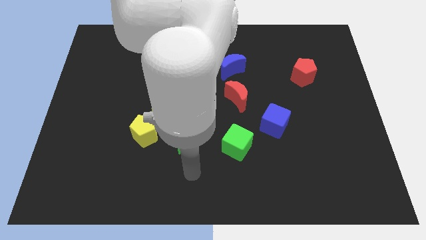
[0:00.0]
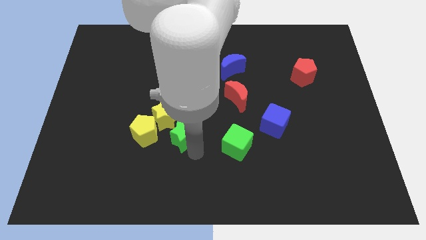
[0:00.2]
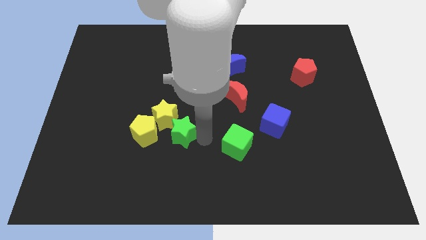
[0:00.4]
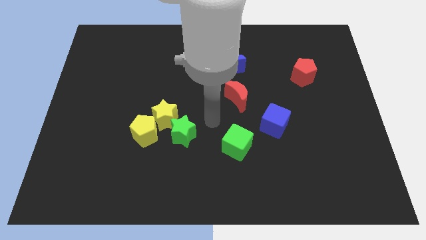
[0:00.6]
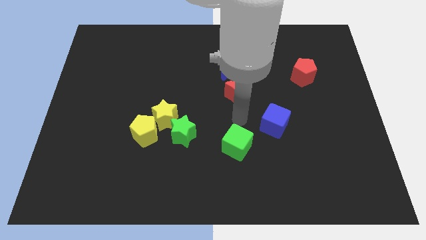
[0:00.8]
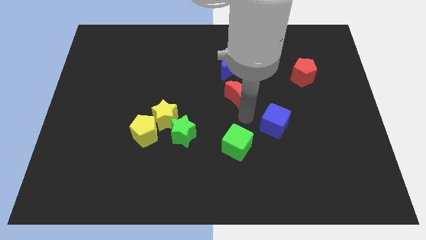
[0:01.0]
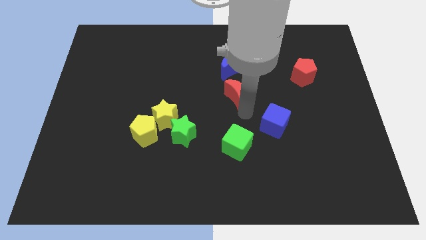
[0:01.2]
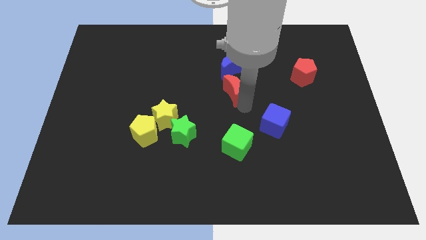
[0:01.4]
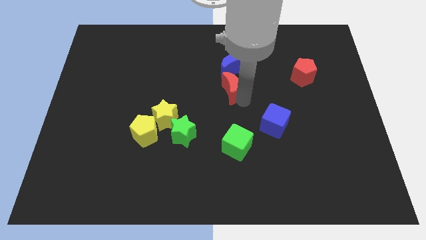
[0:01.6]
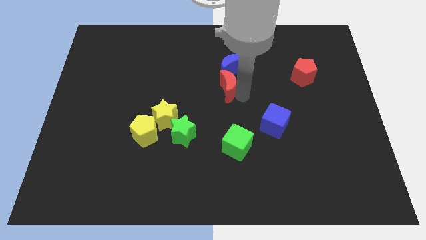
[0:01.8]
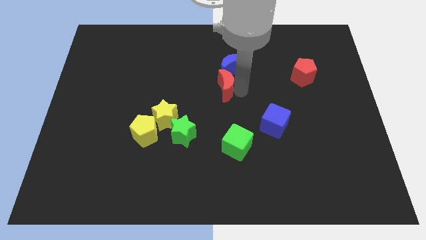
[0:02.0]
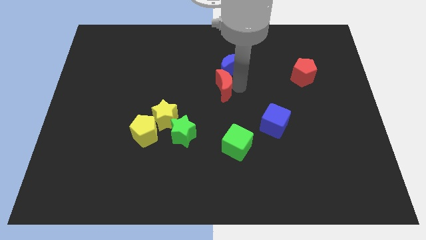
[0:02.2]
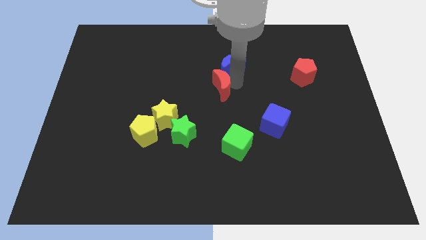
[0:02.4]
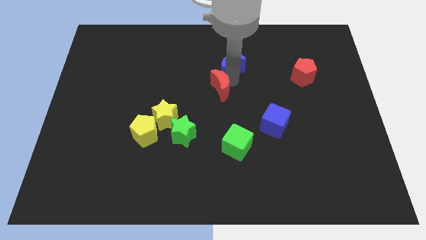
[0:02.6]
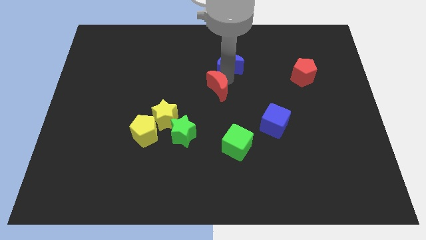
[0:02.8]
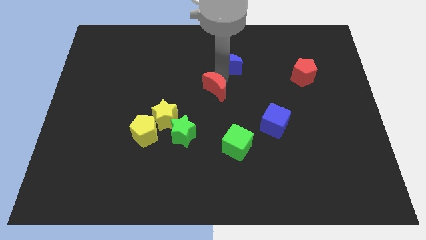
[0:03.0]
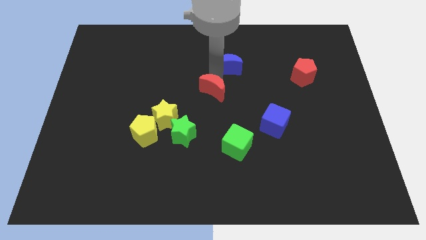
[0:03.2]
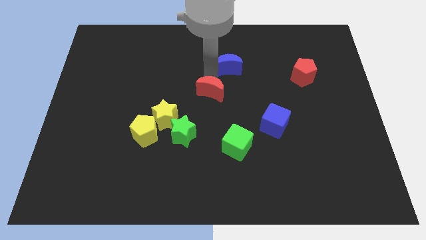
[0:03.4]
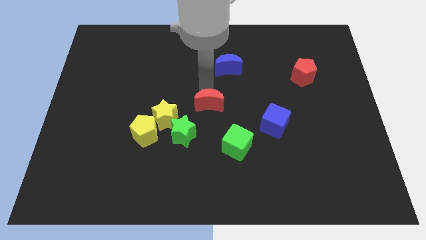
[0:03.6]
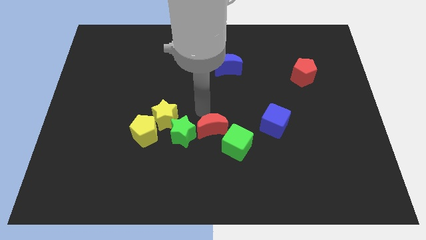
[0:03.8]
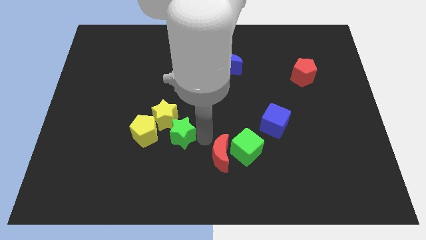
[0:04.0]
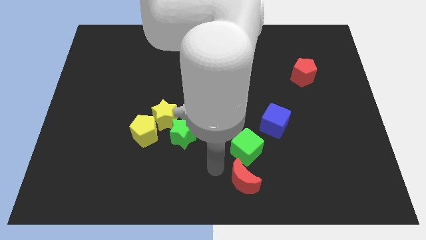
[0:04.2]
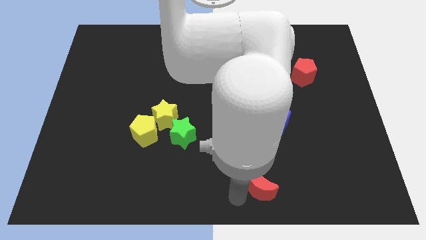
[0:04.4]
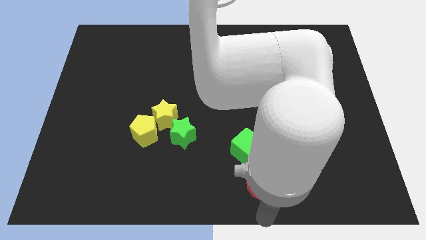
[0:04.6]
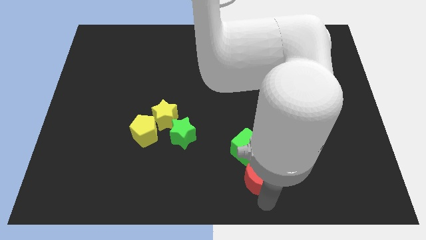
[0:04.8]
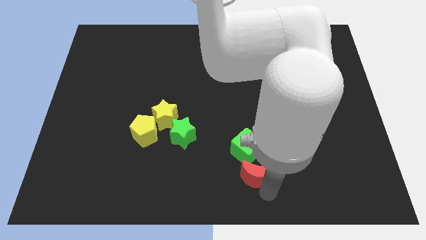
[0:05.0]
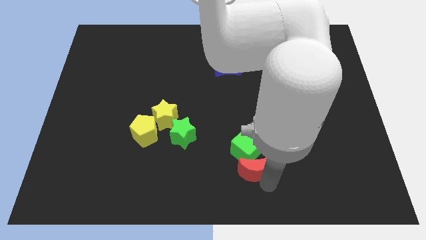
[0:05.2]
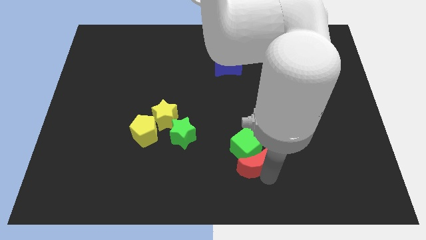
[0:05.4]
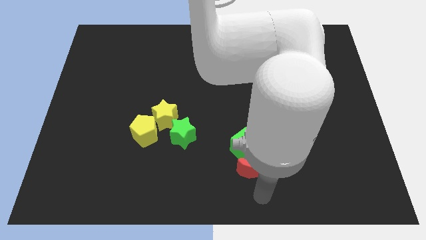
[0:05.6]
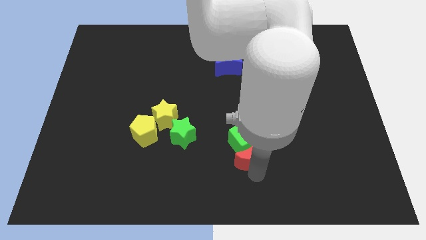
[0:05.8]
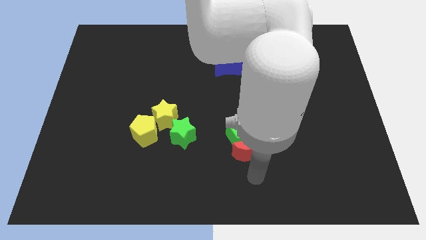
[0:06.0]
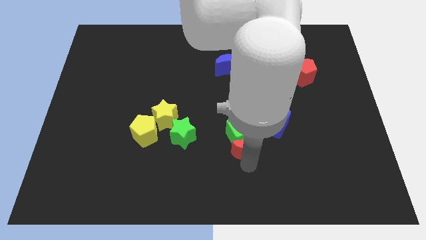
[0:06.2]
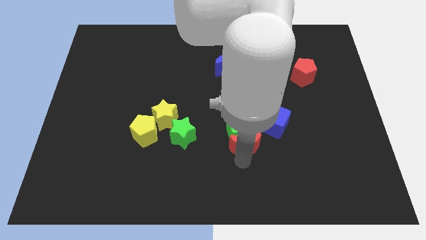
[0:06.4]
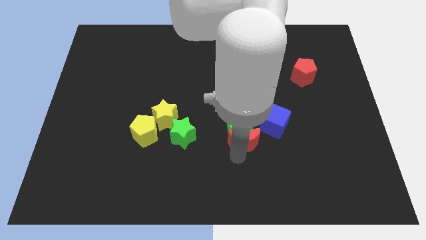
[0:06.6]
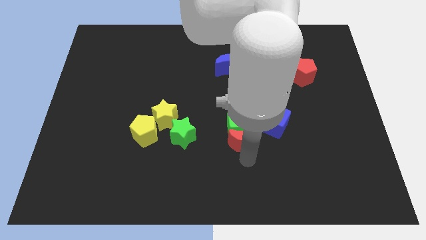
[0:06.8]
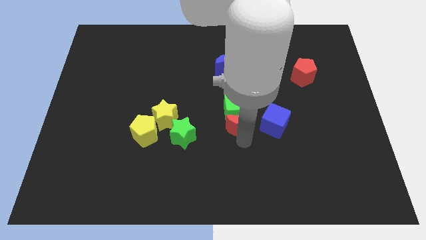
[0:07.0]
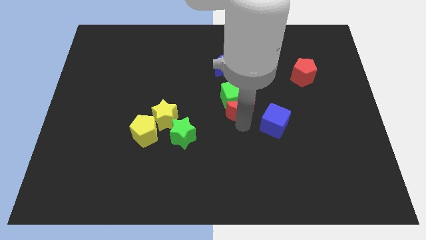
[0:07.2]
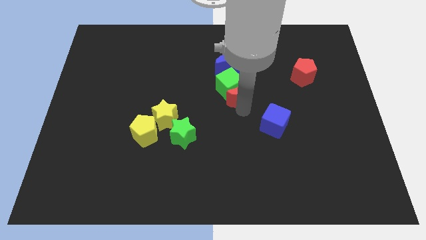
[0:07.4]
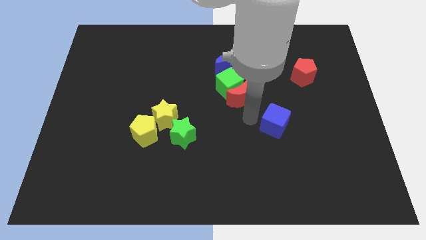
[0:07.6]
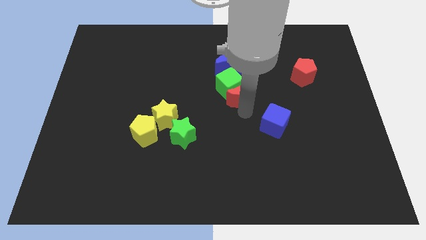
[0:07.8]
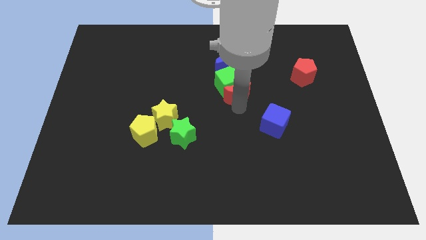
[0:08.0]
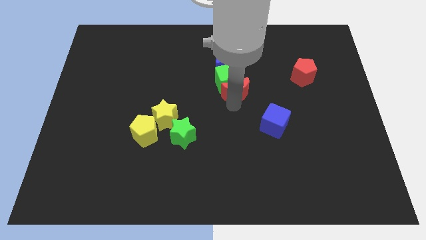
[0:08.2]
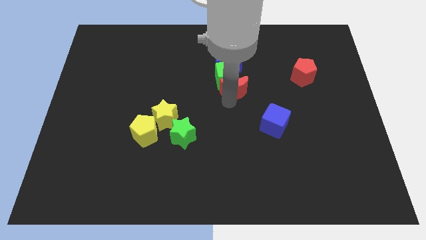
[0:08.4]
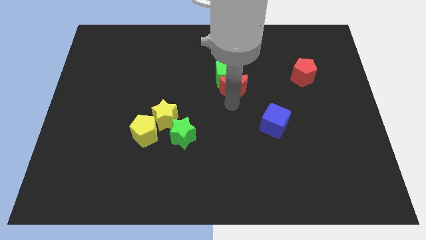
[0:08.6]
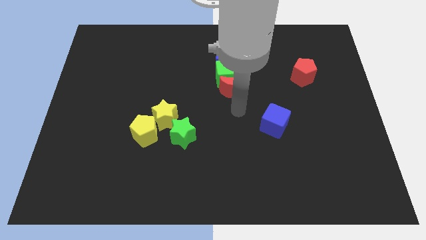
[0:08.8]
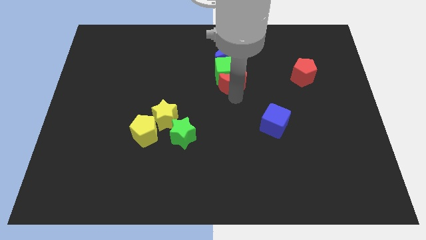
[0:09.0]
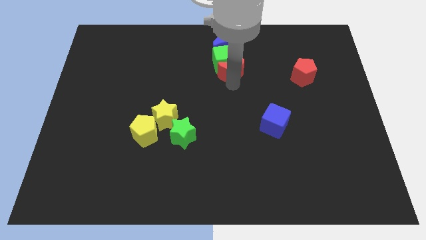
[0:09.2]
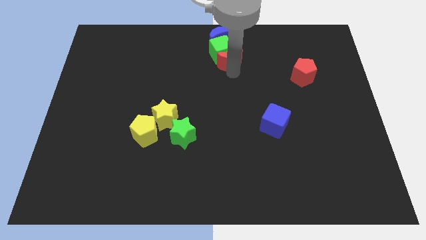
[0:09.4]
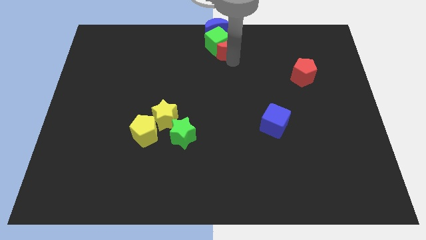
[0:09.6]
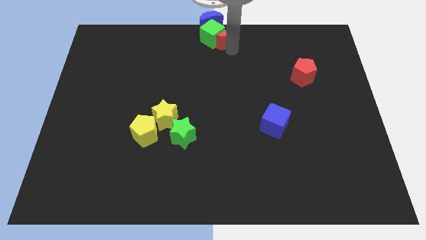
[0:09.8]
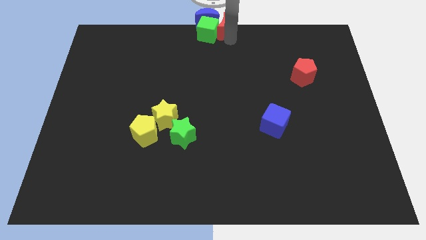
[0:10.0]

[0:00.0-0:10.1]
put the red moon next to the blue moon

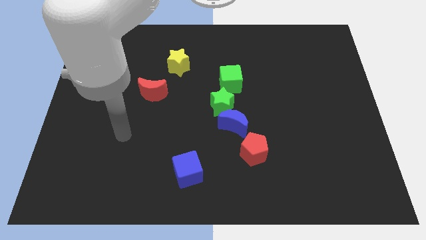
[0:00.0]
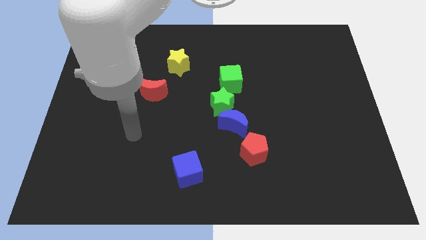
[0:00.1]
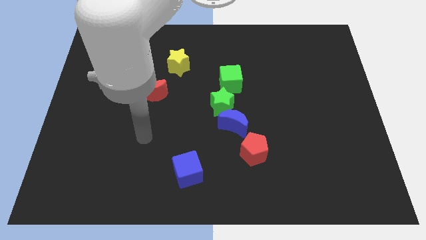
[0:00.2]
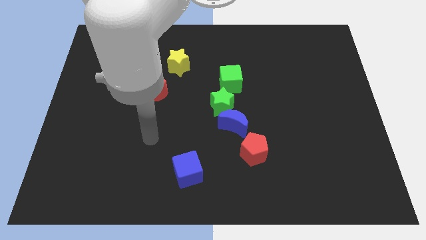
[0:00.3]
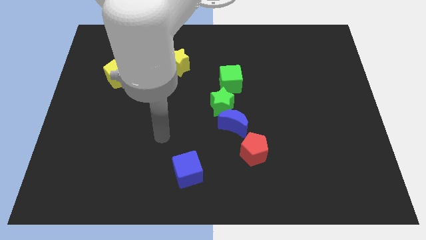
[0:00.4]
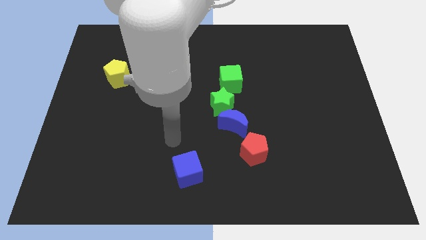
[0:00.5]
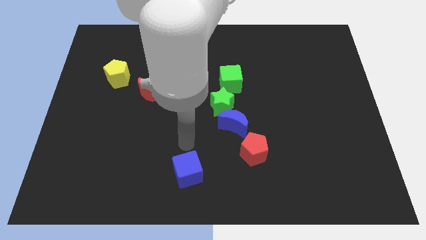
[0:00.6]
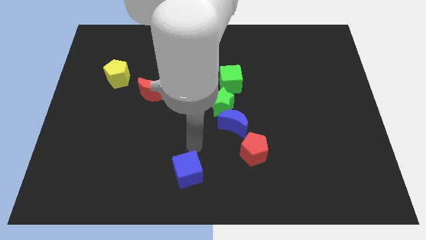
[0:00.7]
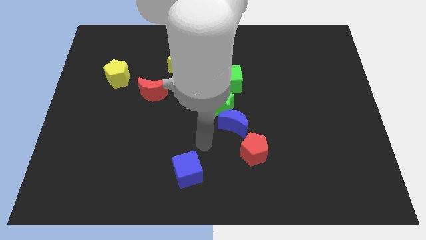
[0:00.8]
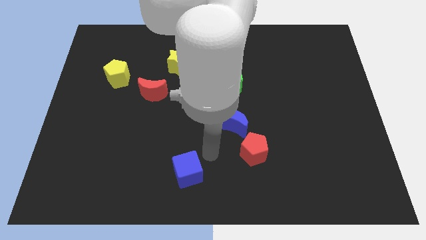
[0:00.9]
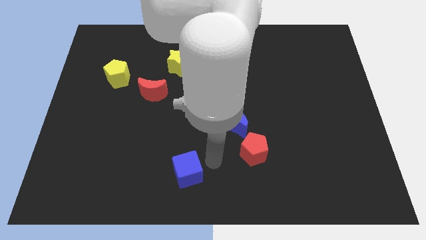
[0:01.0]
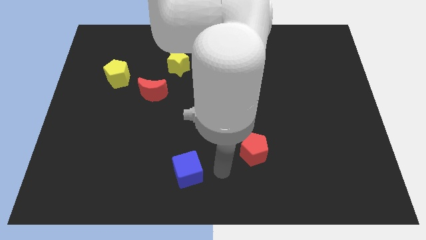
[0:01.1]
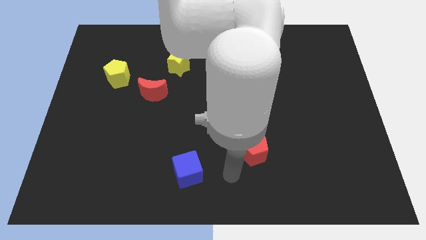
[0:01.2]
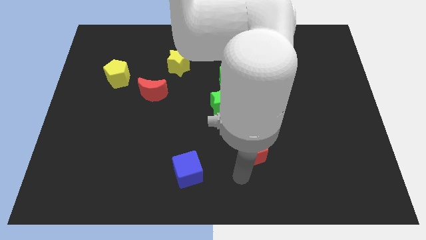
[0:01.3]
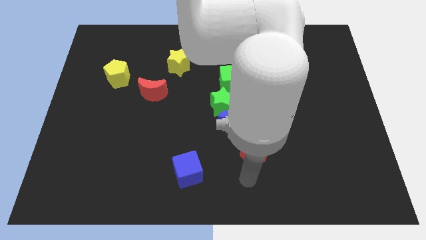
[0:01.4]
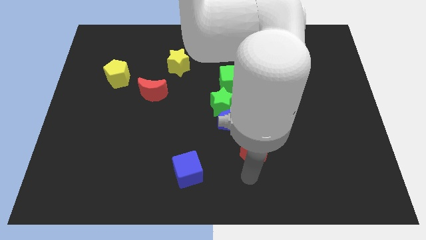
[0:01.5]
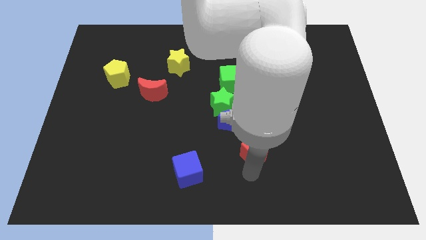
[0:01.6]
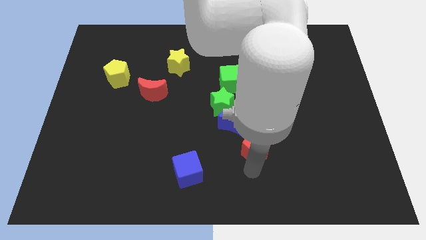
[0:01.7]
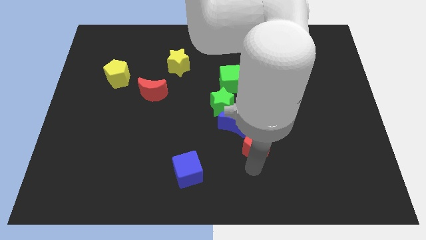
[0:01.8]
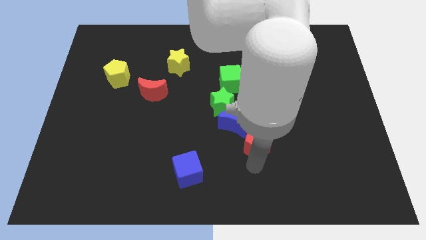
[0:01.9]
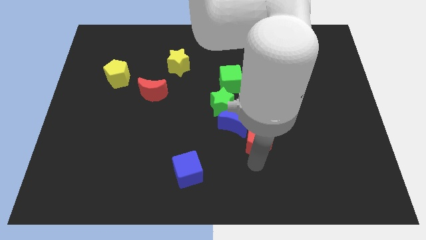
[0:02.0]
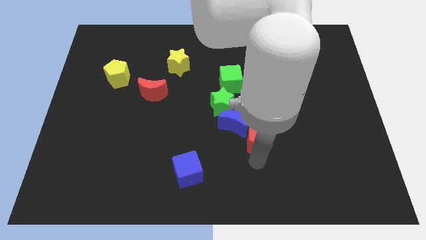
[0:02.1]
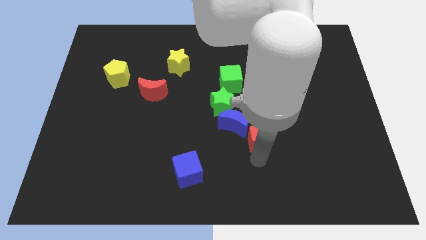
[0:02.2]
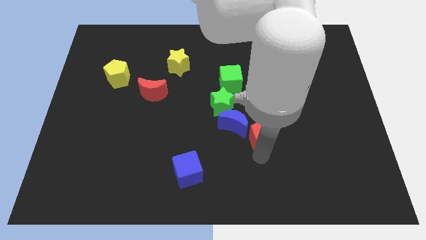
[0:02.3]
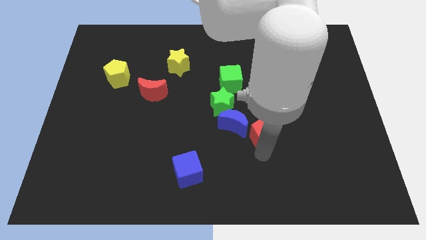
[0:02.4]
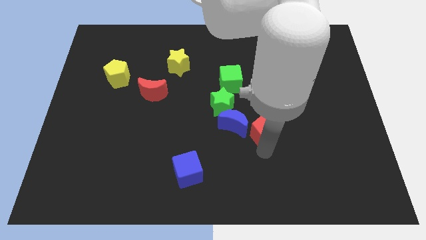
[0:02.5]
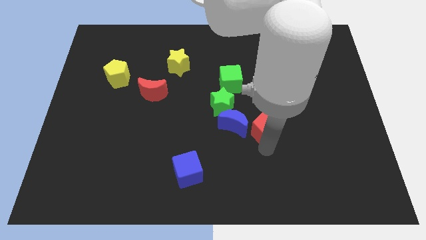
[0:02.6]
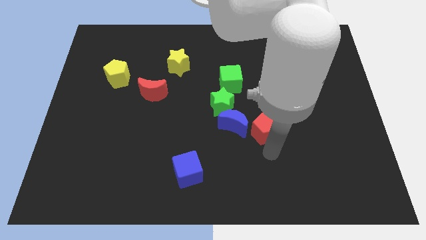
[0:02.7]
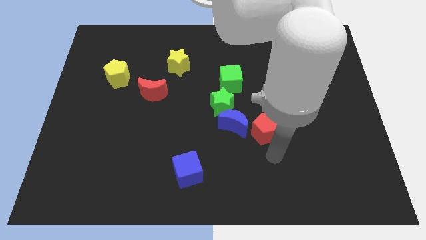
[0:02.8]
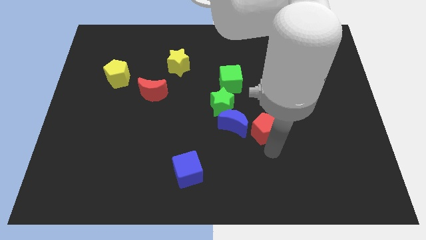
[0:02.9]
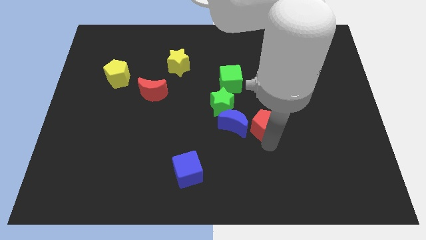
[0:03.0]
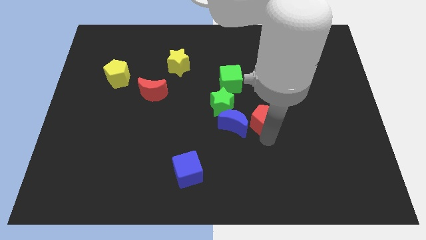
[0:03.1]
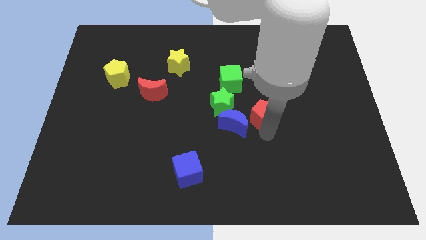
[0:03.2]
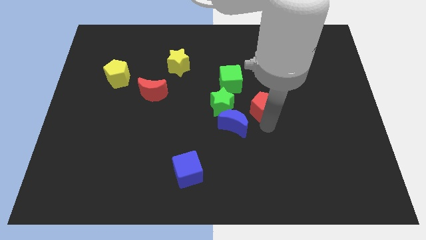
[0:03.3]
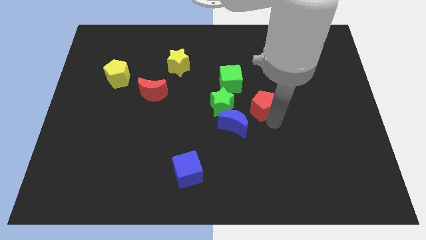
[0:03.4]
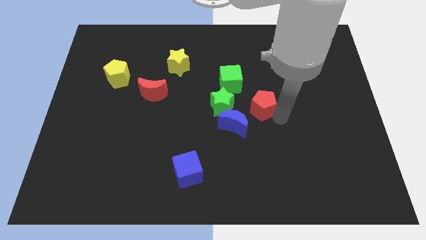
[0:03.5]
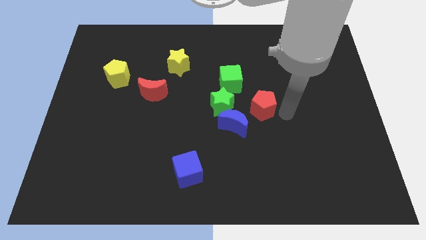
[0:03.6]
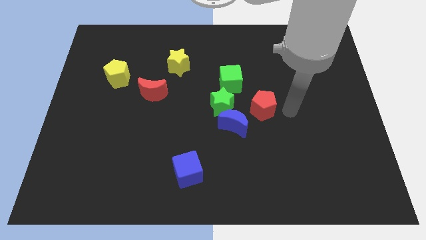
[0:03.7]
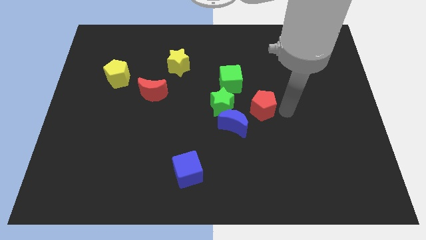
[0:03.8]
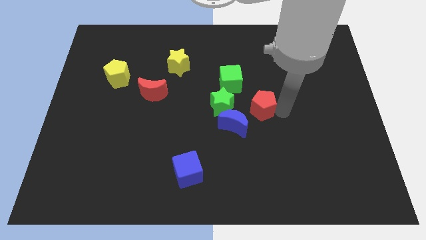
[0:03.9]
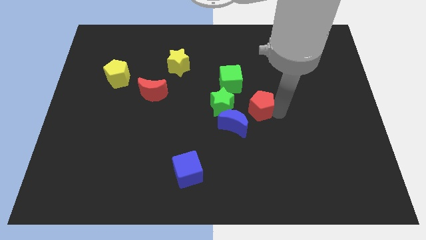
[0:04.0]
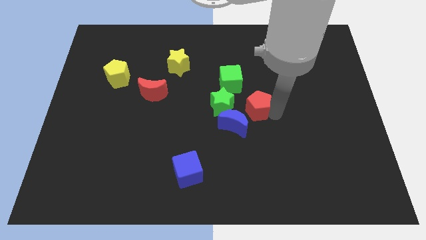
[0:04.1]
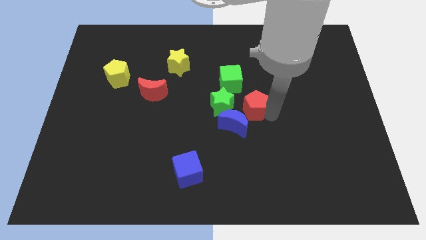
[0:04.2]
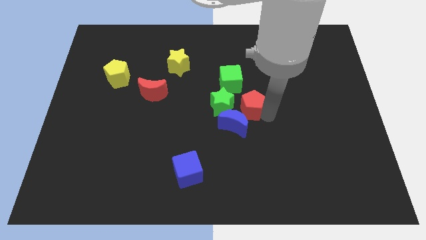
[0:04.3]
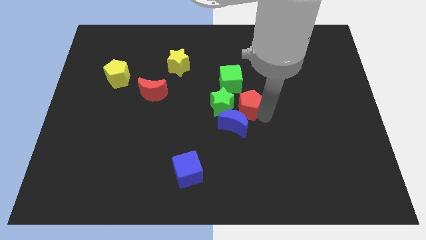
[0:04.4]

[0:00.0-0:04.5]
put the red pentagon to the green star
